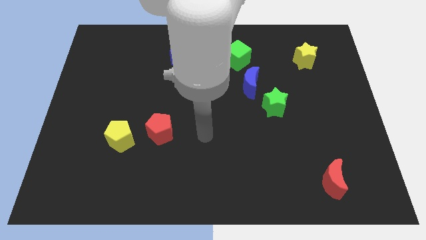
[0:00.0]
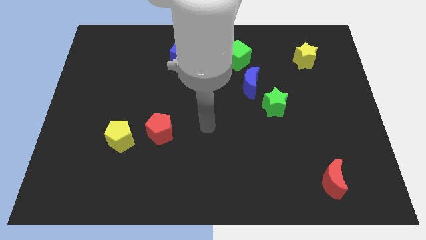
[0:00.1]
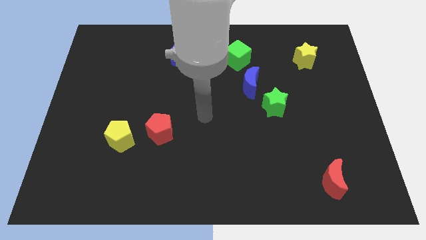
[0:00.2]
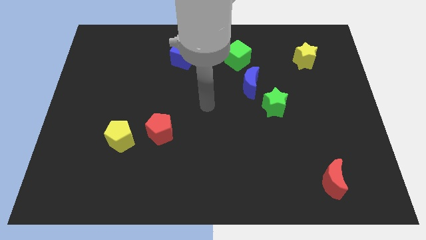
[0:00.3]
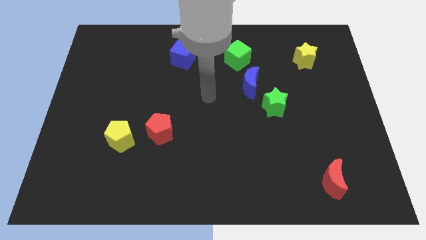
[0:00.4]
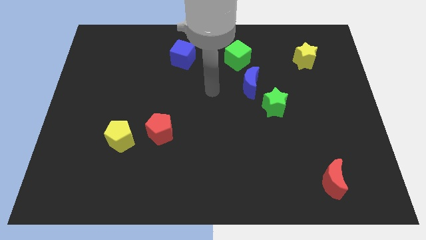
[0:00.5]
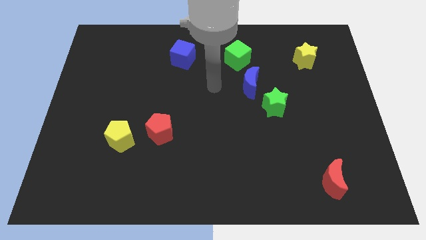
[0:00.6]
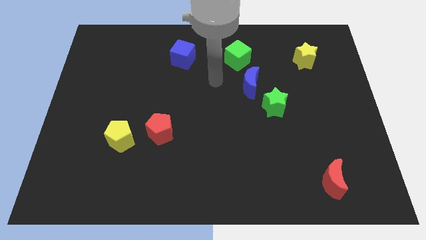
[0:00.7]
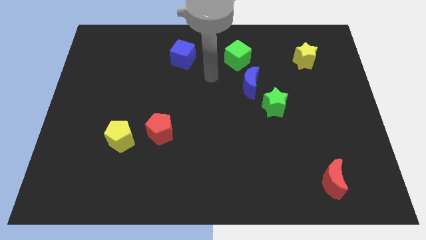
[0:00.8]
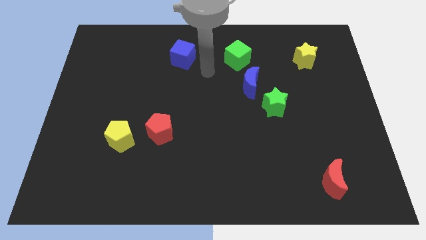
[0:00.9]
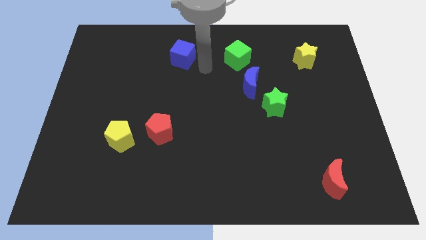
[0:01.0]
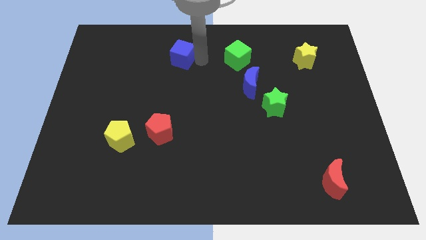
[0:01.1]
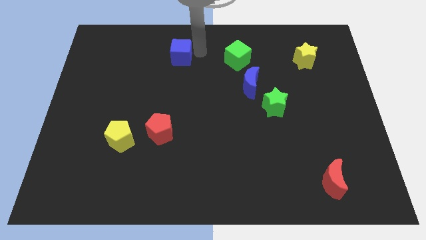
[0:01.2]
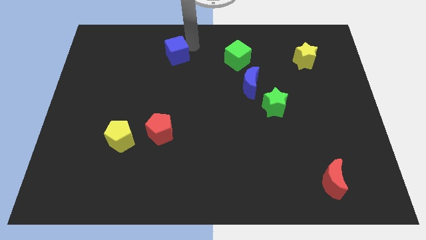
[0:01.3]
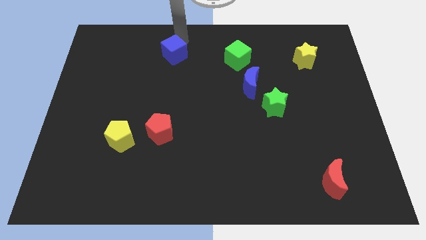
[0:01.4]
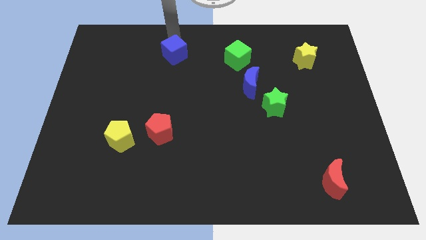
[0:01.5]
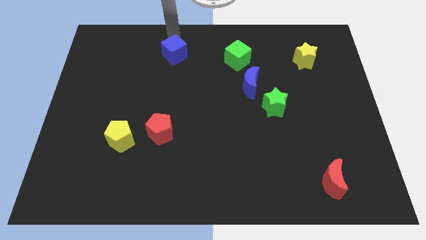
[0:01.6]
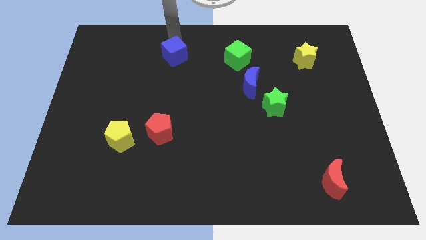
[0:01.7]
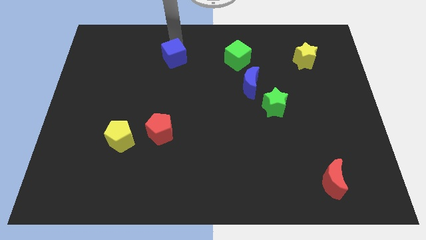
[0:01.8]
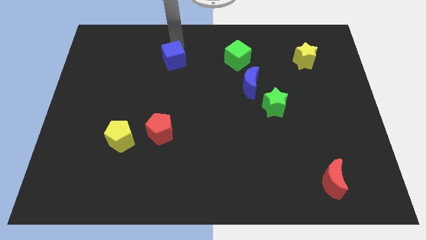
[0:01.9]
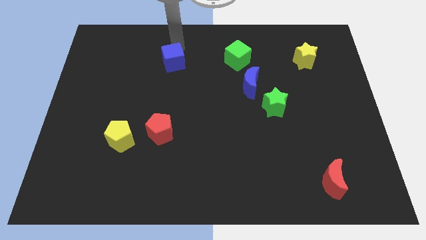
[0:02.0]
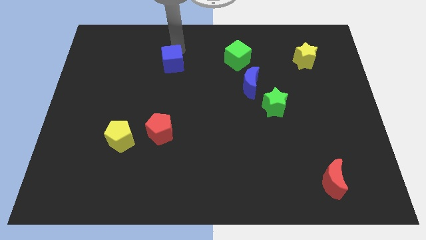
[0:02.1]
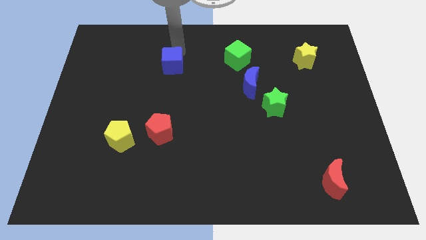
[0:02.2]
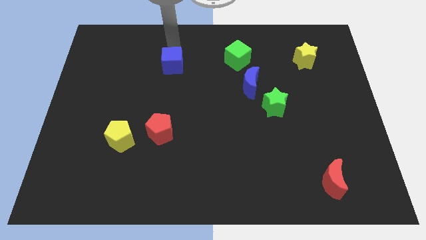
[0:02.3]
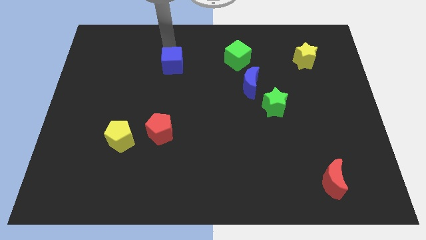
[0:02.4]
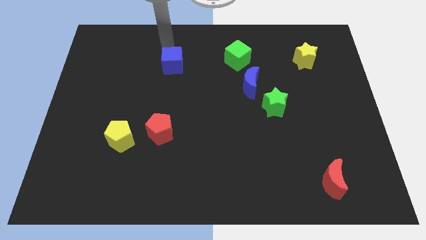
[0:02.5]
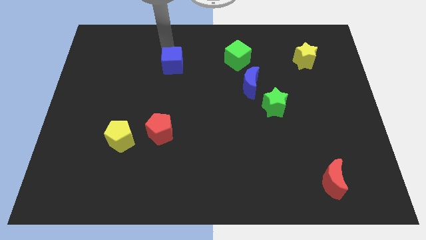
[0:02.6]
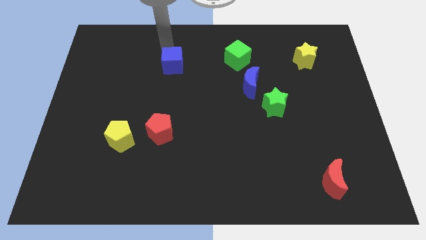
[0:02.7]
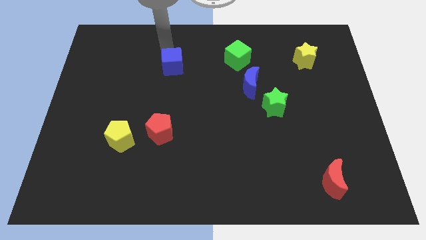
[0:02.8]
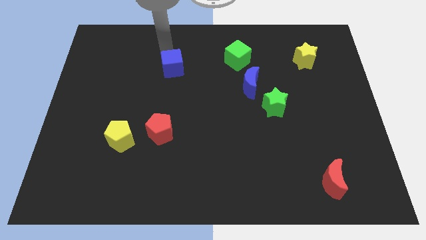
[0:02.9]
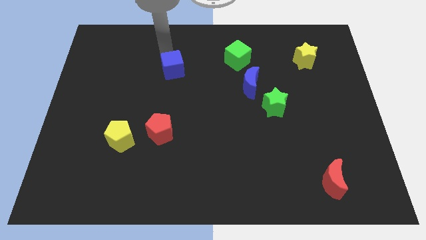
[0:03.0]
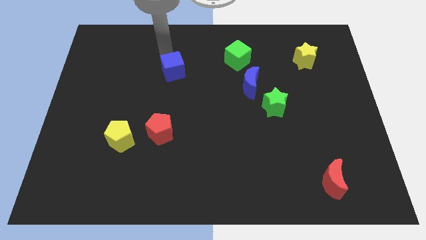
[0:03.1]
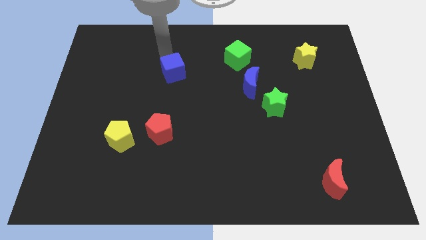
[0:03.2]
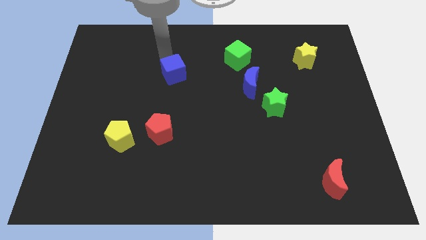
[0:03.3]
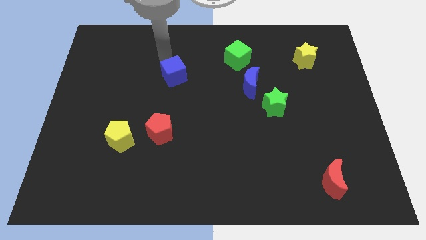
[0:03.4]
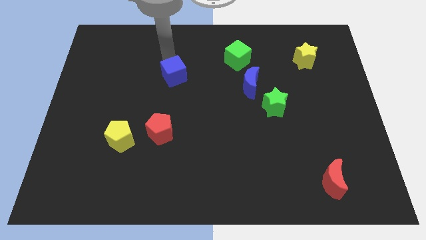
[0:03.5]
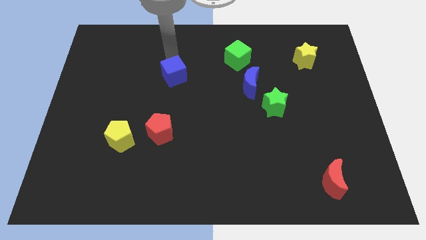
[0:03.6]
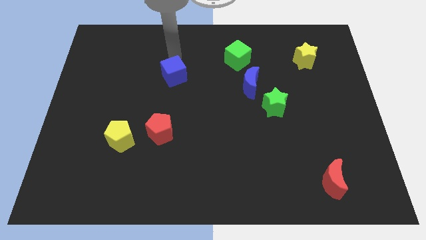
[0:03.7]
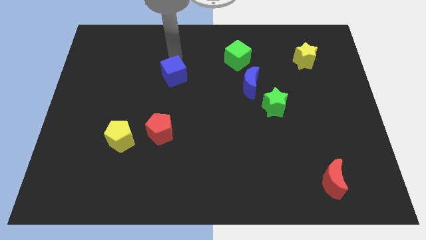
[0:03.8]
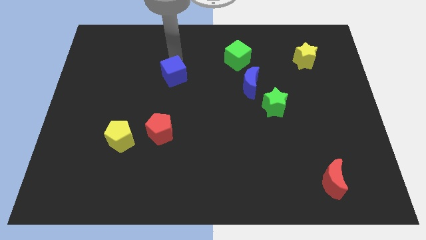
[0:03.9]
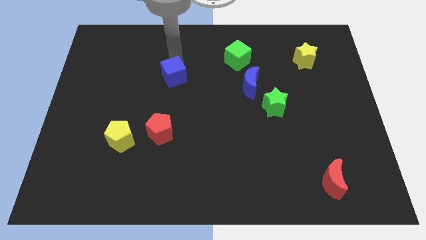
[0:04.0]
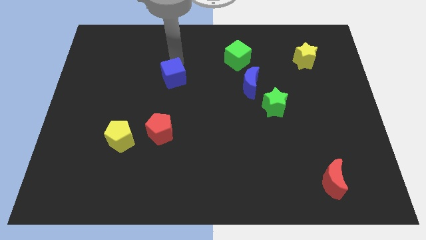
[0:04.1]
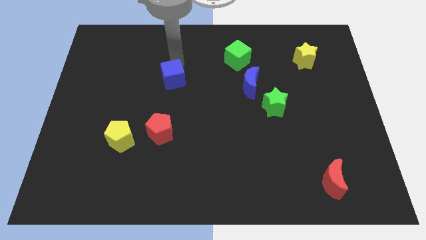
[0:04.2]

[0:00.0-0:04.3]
slightly move the blue cube down

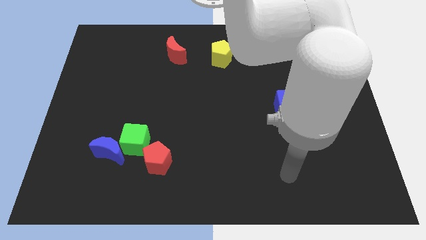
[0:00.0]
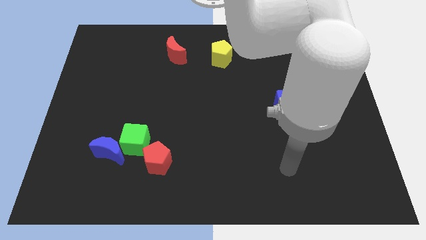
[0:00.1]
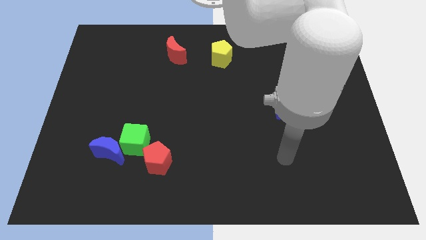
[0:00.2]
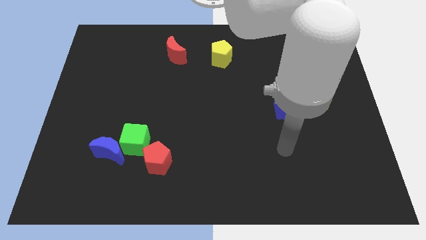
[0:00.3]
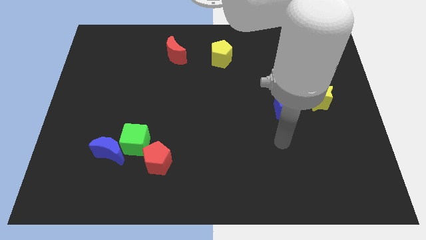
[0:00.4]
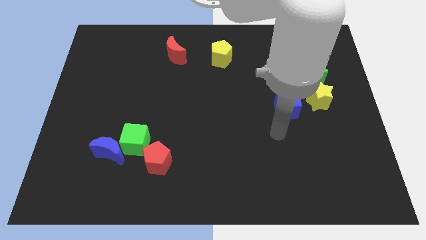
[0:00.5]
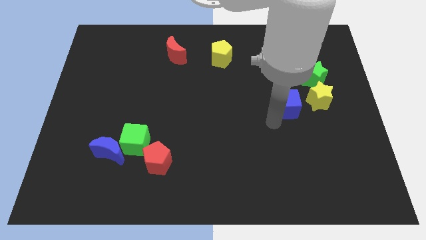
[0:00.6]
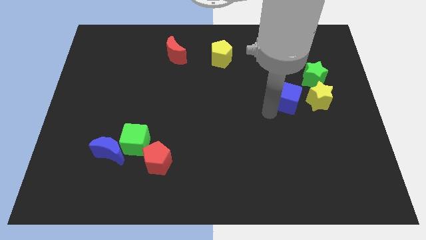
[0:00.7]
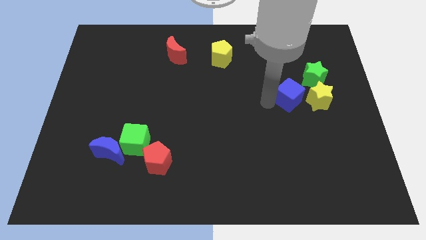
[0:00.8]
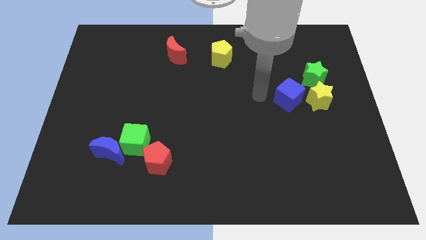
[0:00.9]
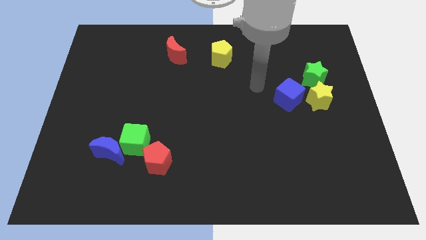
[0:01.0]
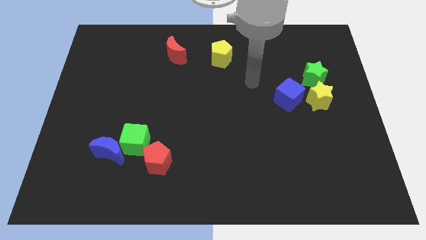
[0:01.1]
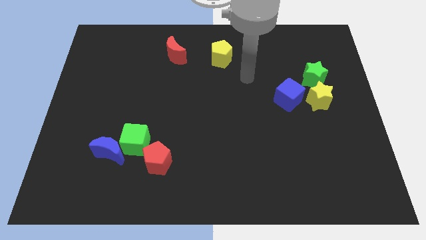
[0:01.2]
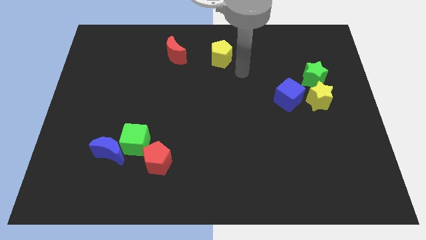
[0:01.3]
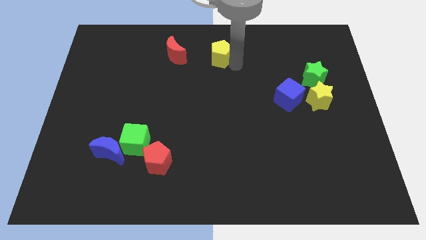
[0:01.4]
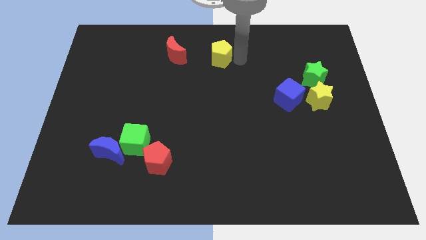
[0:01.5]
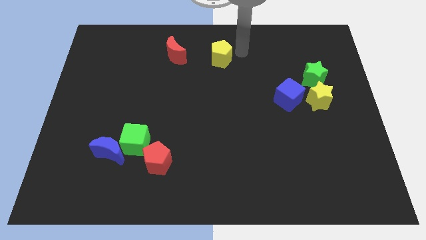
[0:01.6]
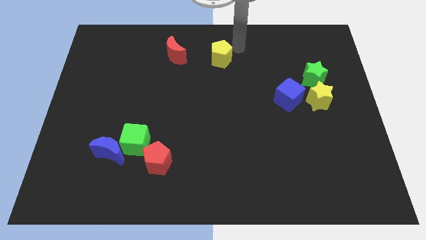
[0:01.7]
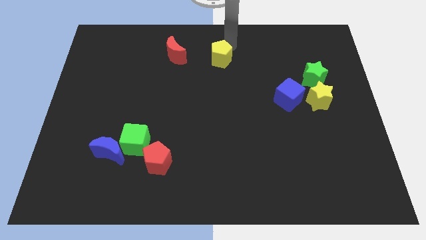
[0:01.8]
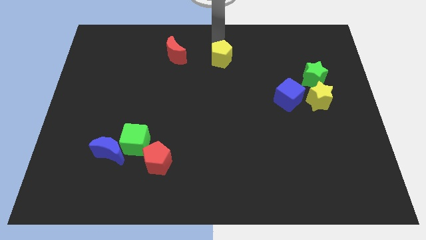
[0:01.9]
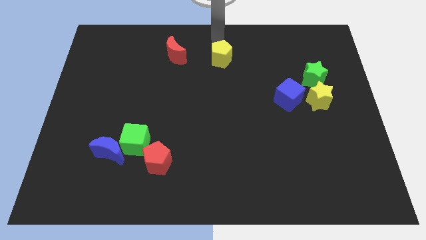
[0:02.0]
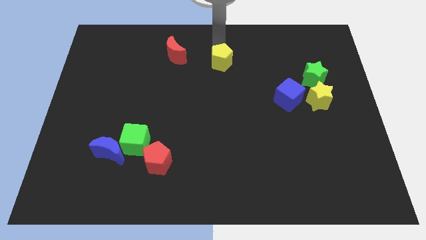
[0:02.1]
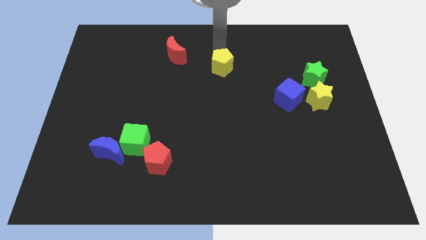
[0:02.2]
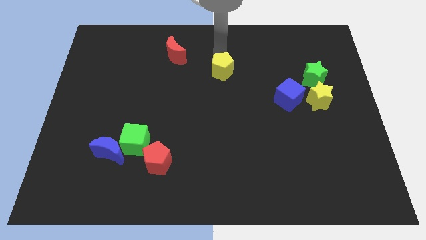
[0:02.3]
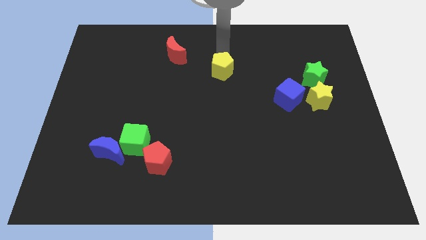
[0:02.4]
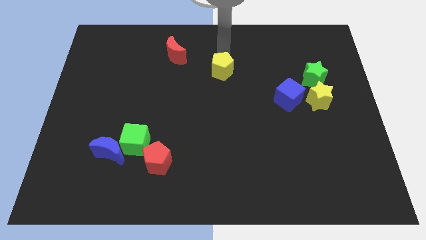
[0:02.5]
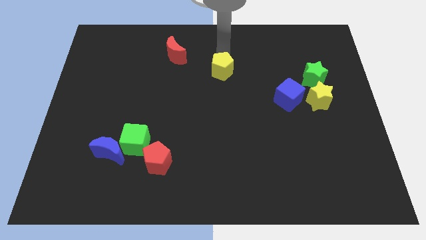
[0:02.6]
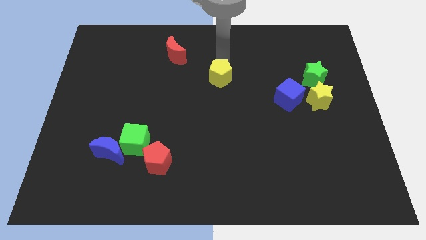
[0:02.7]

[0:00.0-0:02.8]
slightly move the yellow pentagon downwards

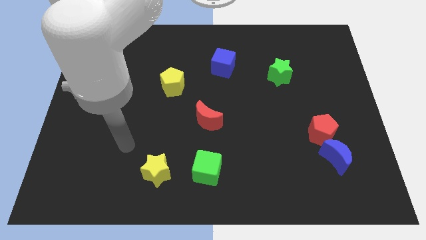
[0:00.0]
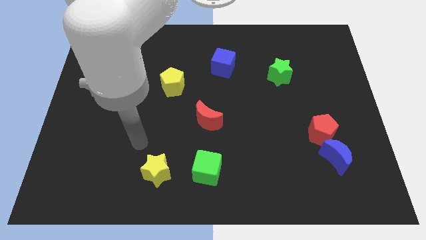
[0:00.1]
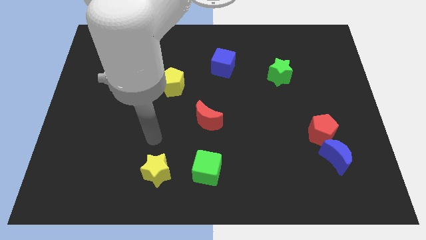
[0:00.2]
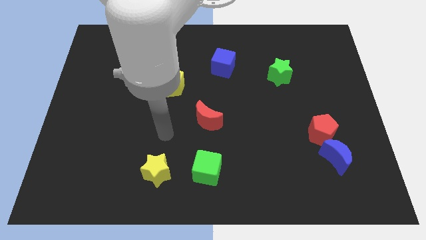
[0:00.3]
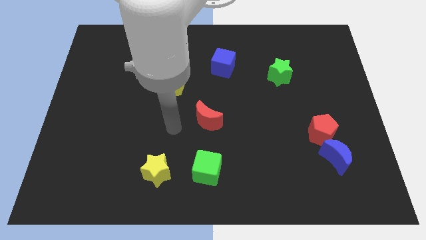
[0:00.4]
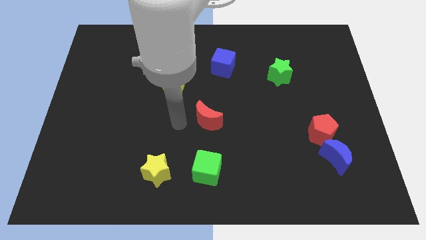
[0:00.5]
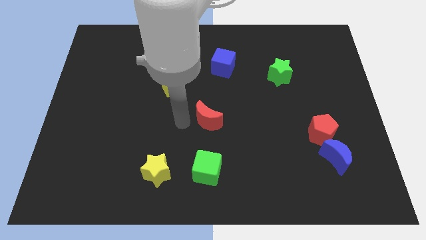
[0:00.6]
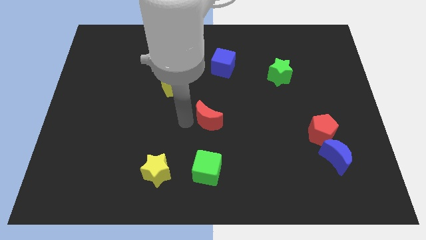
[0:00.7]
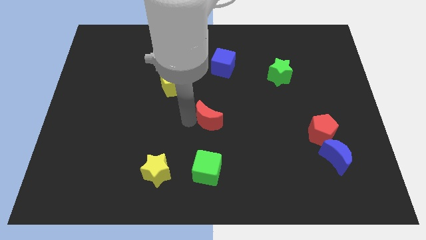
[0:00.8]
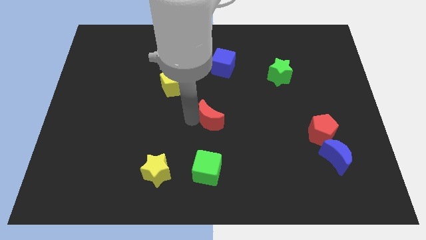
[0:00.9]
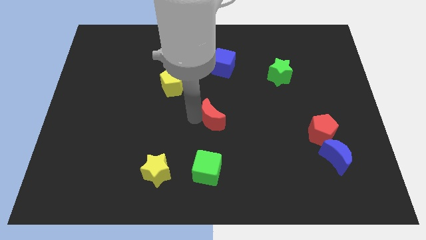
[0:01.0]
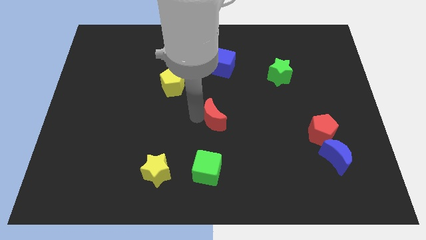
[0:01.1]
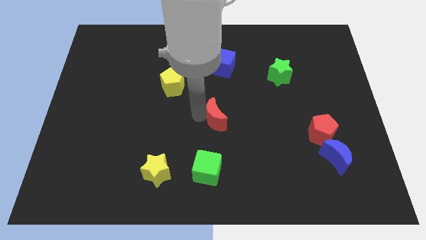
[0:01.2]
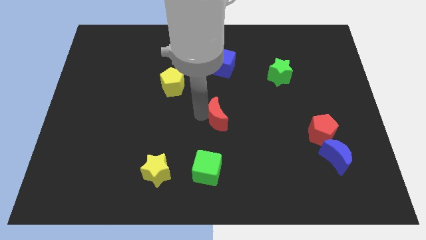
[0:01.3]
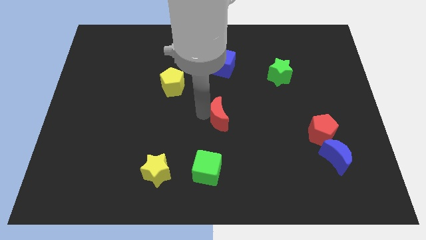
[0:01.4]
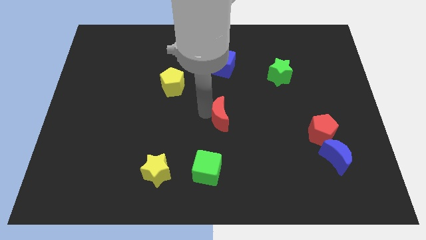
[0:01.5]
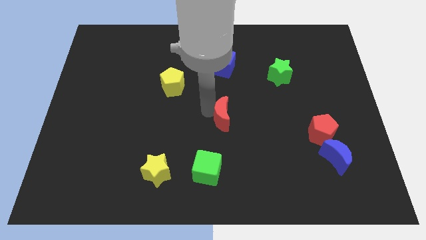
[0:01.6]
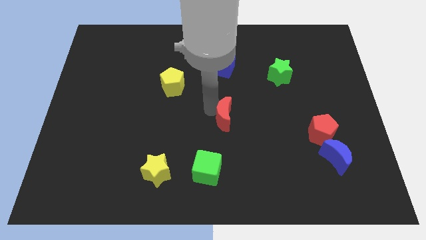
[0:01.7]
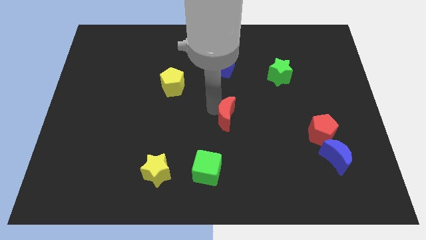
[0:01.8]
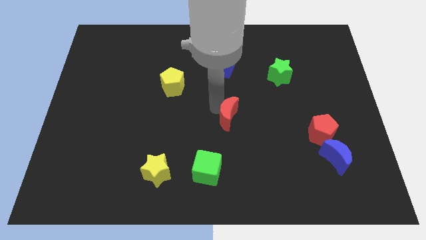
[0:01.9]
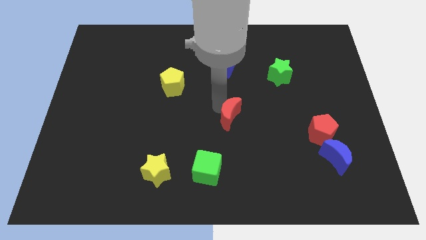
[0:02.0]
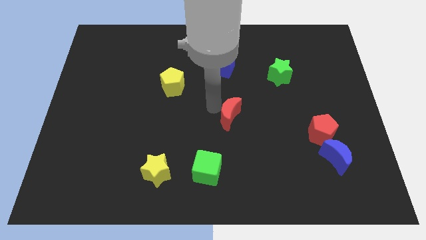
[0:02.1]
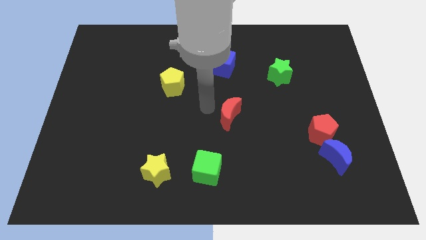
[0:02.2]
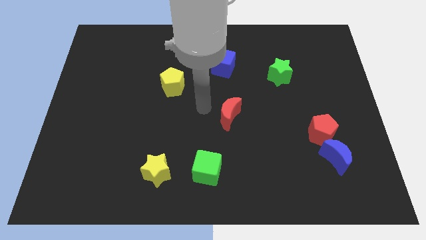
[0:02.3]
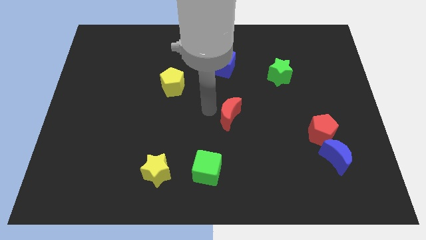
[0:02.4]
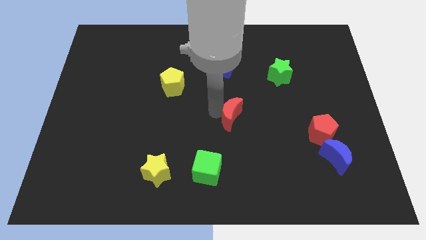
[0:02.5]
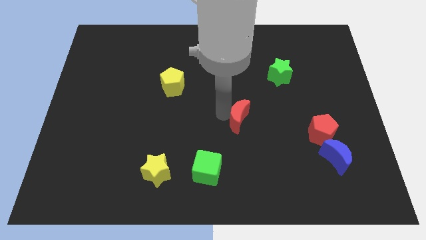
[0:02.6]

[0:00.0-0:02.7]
slightly push the red moon to the right
